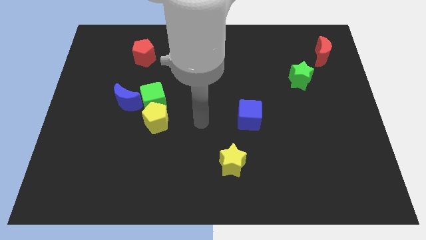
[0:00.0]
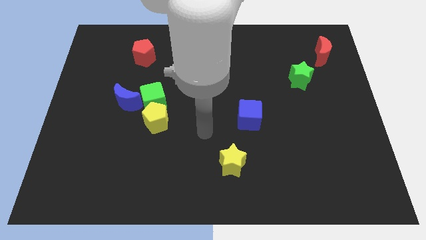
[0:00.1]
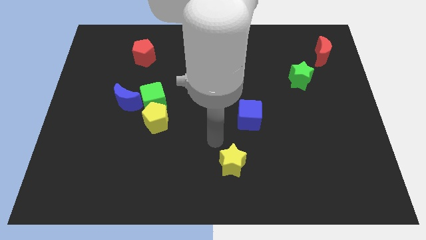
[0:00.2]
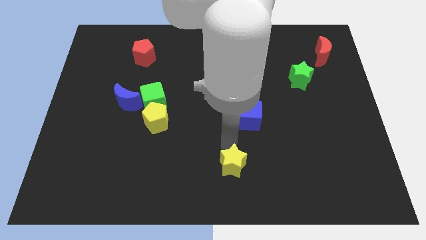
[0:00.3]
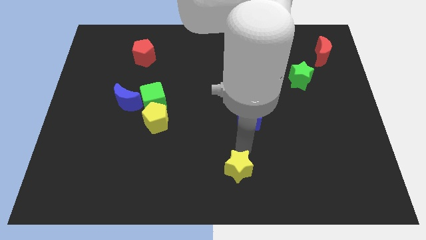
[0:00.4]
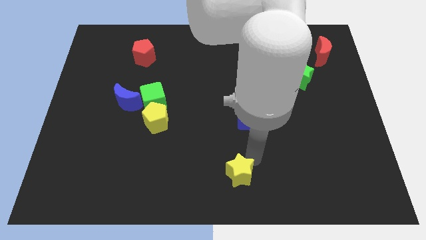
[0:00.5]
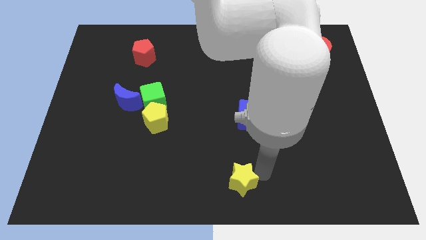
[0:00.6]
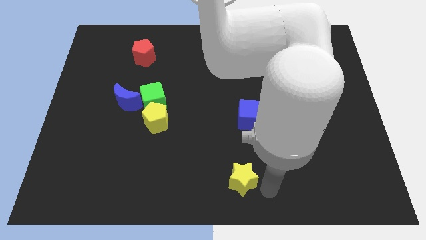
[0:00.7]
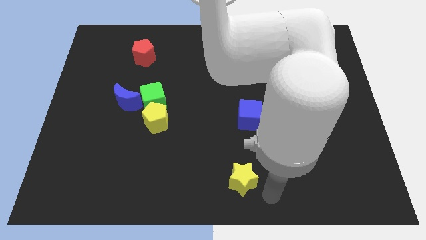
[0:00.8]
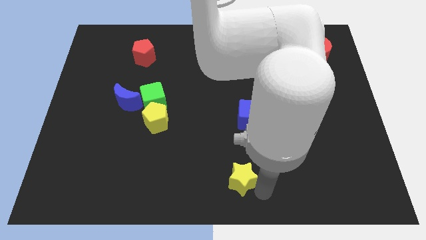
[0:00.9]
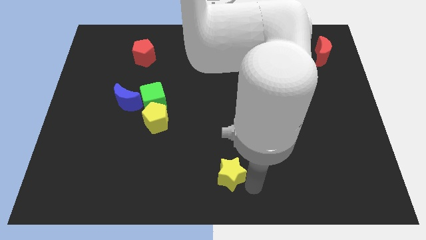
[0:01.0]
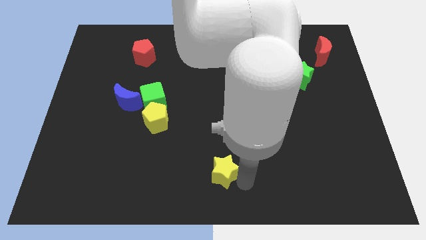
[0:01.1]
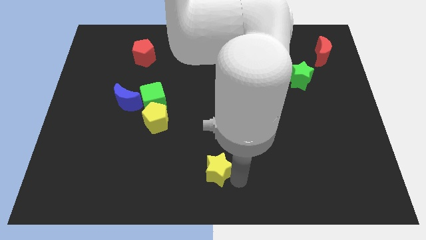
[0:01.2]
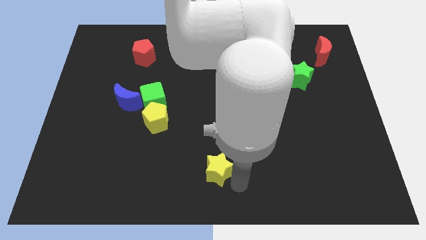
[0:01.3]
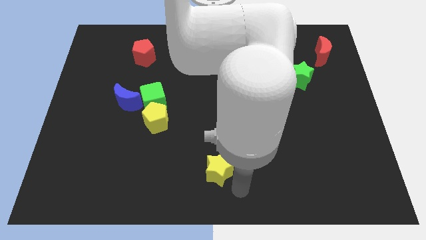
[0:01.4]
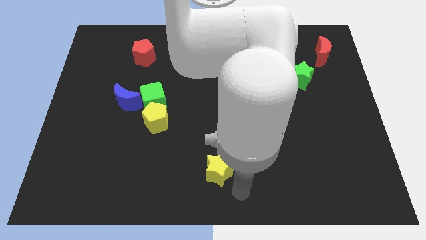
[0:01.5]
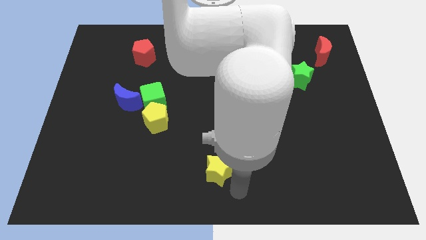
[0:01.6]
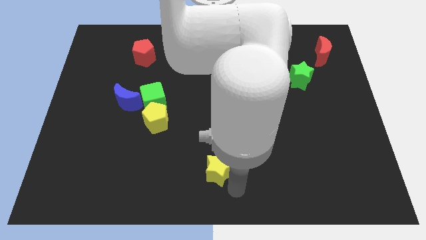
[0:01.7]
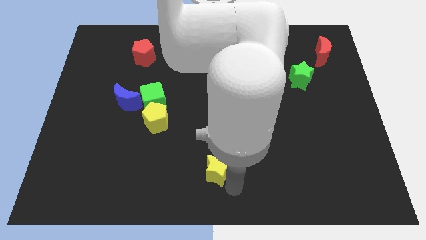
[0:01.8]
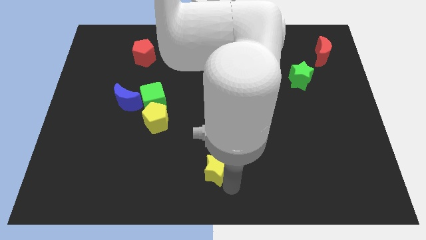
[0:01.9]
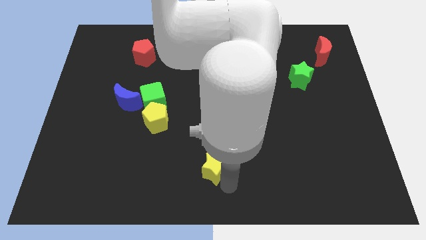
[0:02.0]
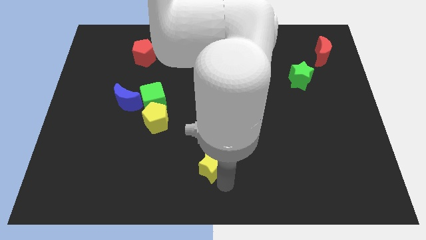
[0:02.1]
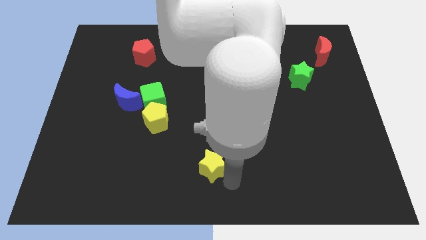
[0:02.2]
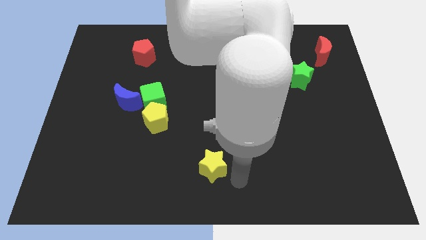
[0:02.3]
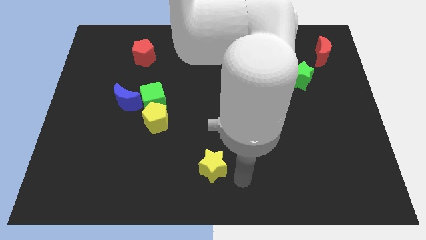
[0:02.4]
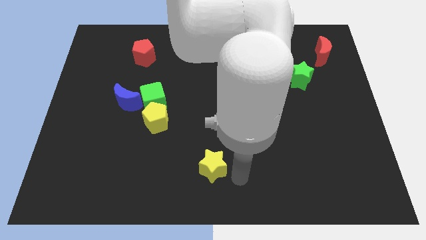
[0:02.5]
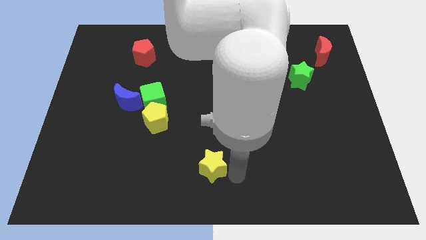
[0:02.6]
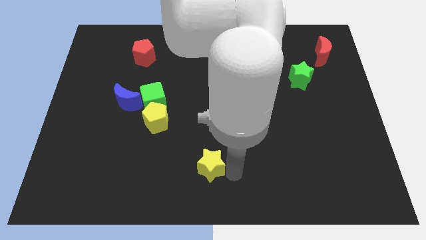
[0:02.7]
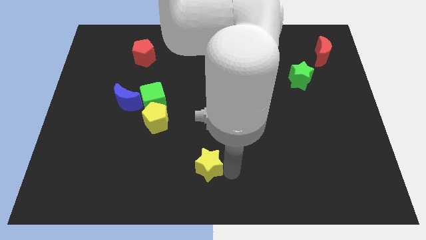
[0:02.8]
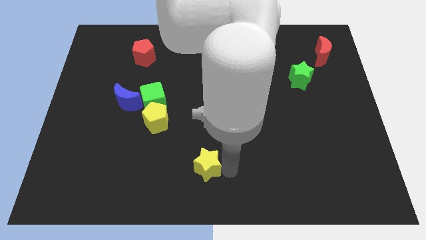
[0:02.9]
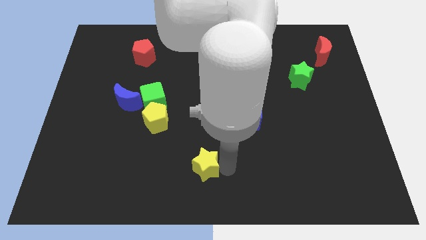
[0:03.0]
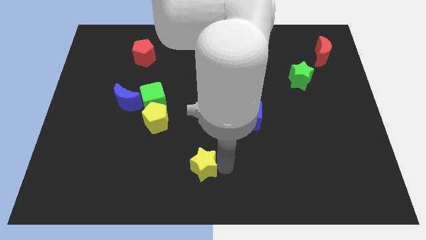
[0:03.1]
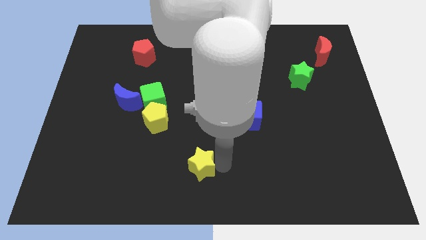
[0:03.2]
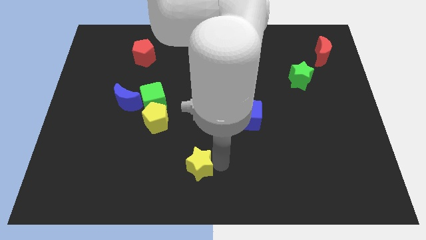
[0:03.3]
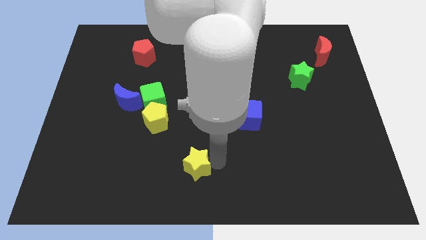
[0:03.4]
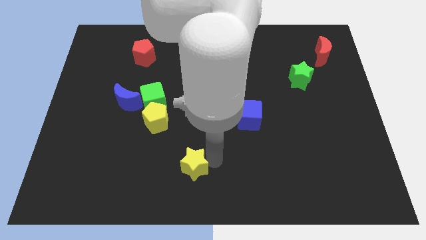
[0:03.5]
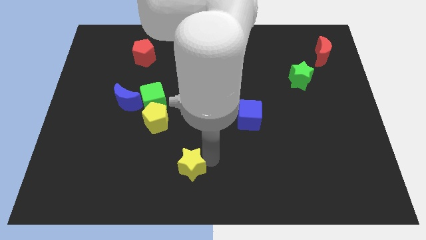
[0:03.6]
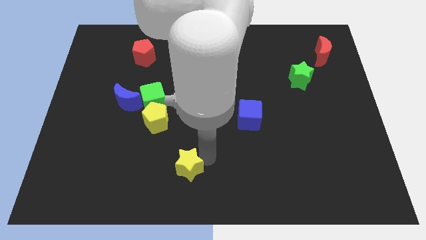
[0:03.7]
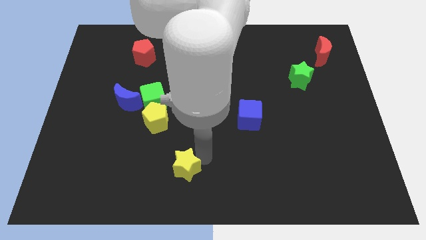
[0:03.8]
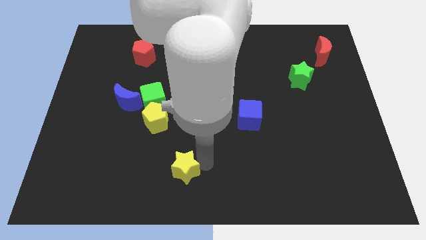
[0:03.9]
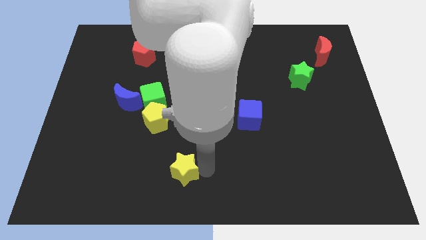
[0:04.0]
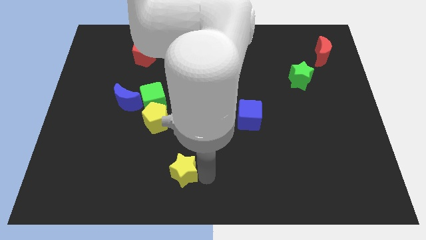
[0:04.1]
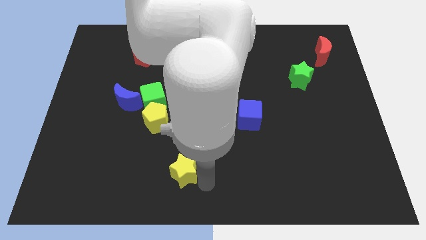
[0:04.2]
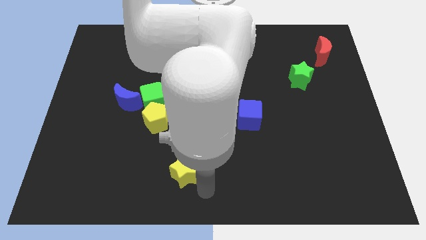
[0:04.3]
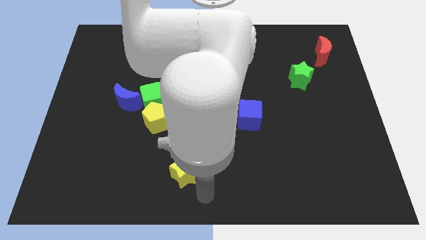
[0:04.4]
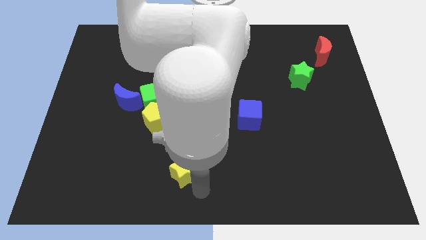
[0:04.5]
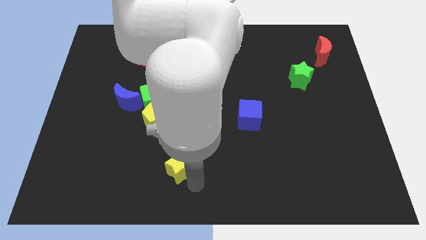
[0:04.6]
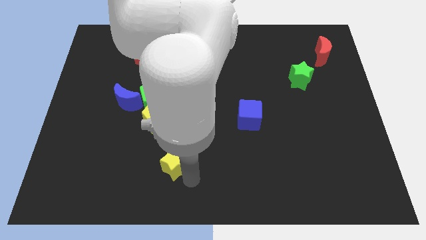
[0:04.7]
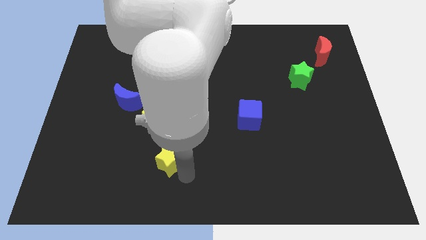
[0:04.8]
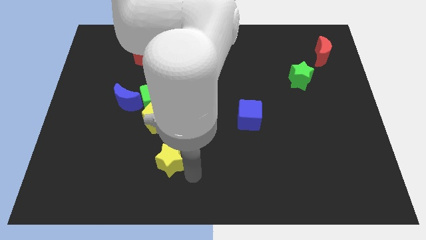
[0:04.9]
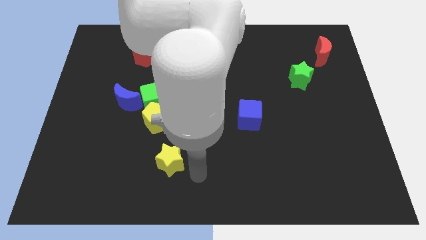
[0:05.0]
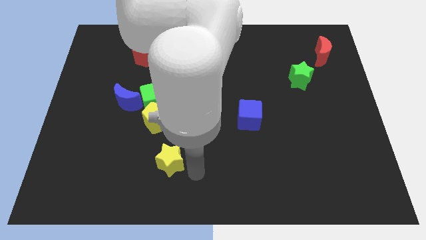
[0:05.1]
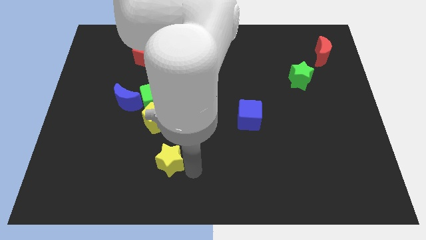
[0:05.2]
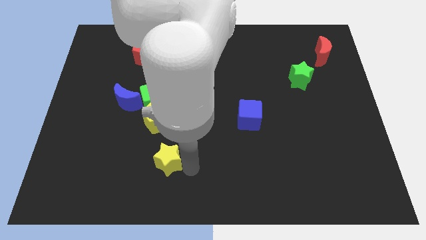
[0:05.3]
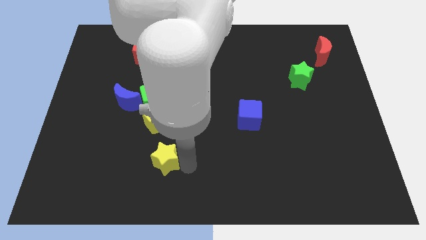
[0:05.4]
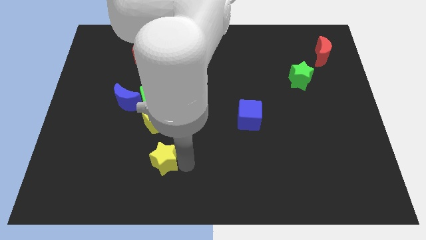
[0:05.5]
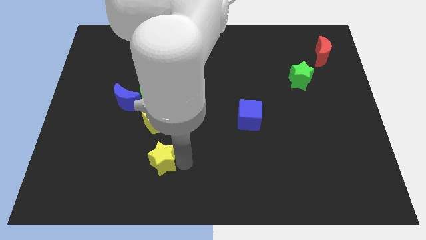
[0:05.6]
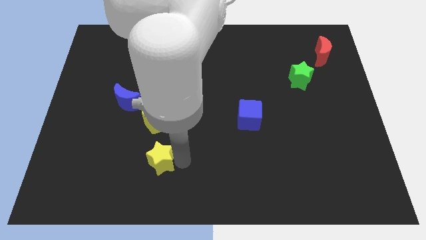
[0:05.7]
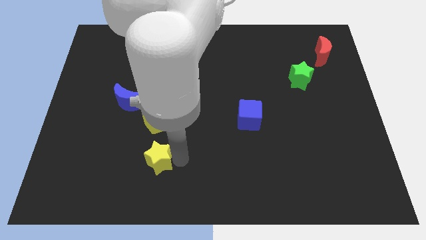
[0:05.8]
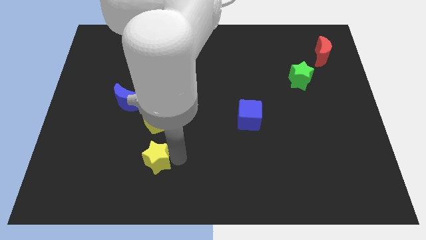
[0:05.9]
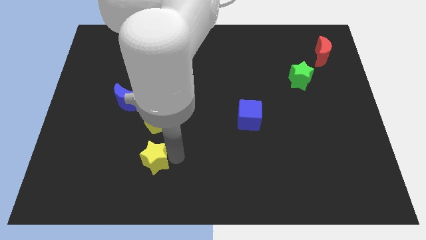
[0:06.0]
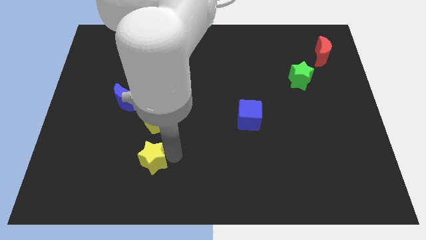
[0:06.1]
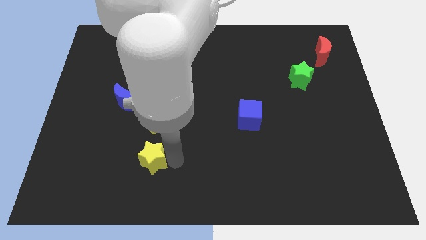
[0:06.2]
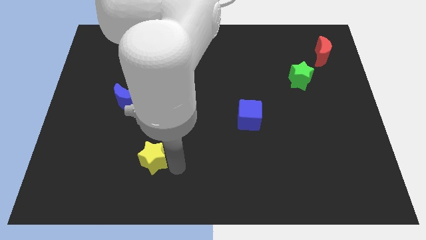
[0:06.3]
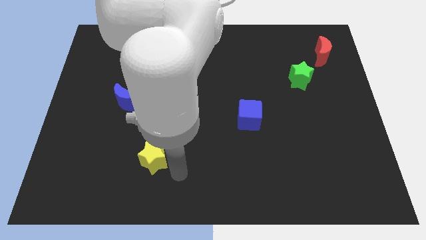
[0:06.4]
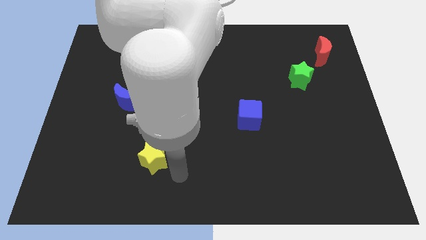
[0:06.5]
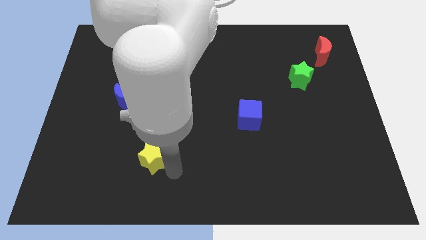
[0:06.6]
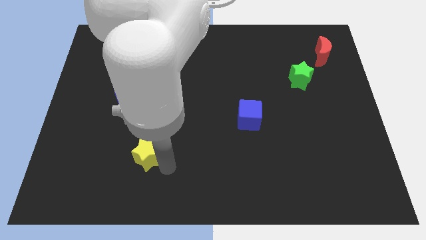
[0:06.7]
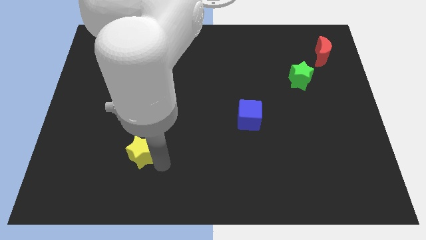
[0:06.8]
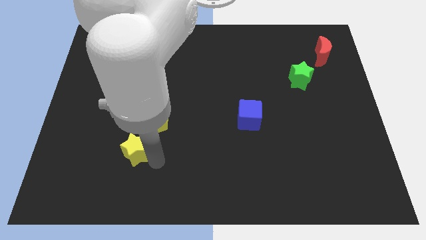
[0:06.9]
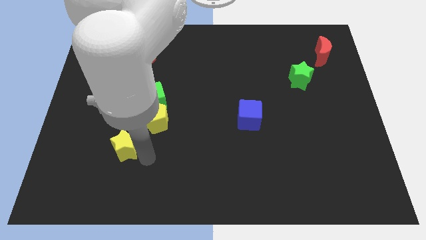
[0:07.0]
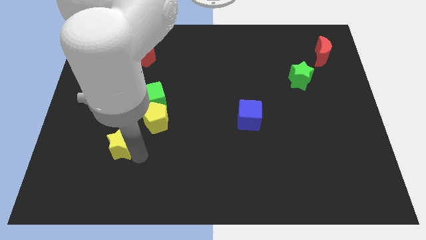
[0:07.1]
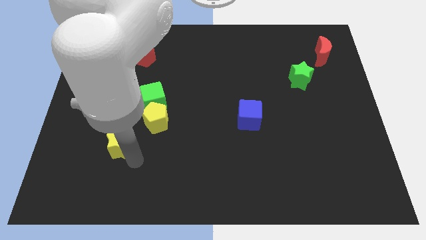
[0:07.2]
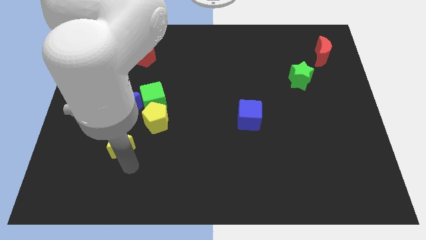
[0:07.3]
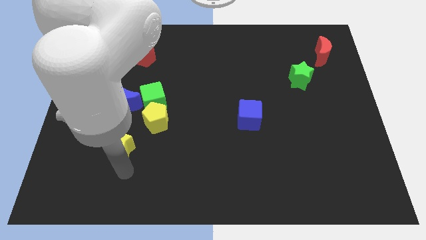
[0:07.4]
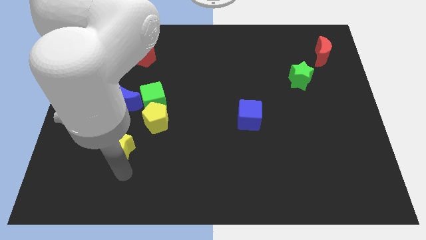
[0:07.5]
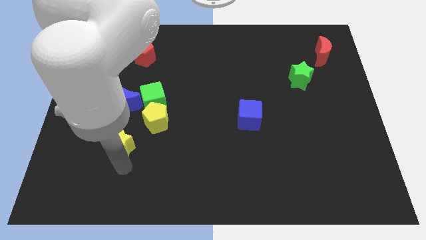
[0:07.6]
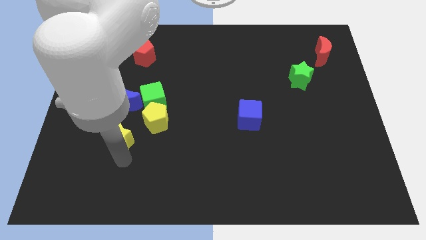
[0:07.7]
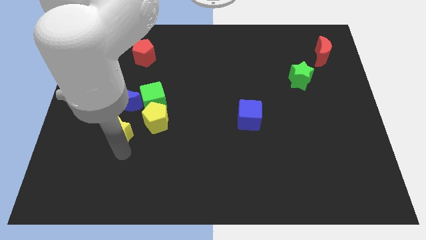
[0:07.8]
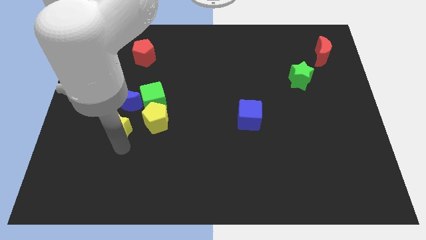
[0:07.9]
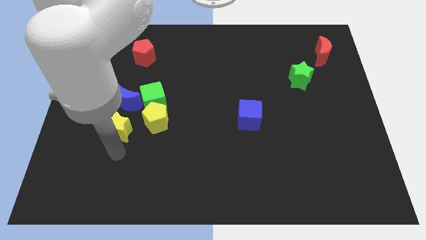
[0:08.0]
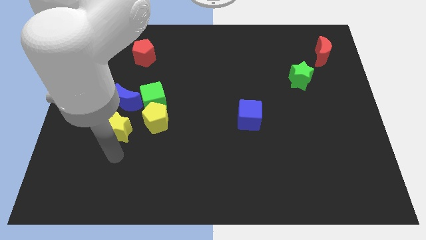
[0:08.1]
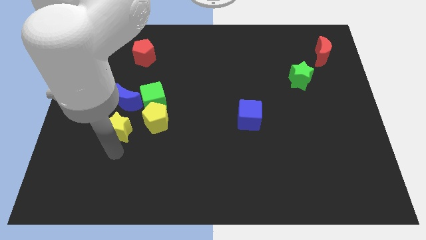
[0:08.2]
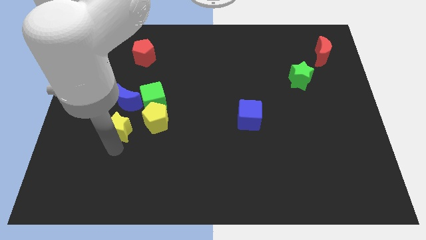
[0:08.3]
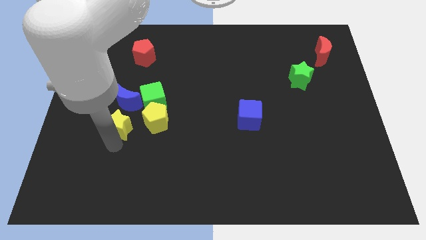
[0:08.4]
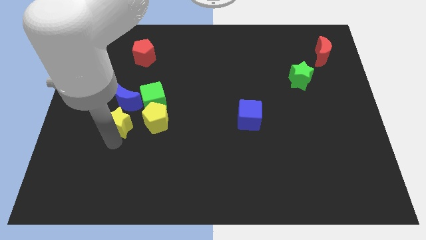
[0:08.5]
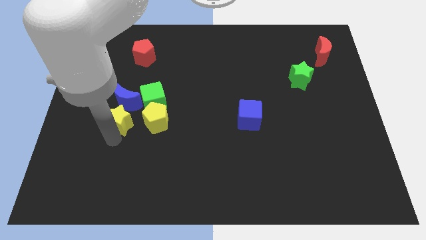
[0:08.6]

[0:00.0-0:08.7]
slide the yellow star next to the blue moon
